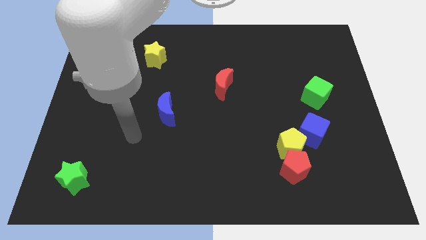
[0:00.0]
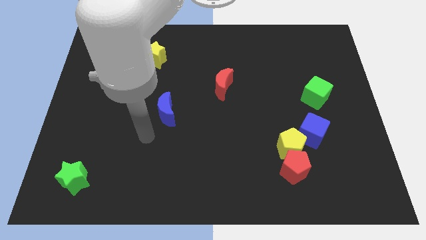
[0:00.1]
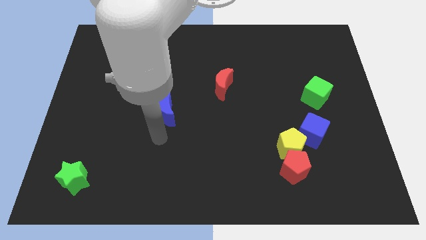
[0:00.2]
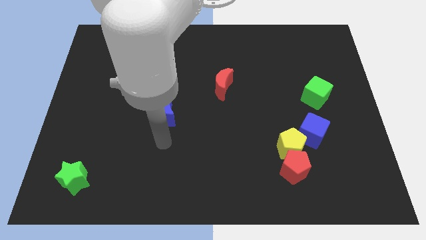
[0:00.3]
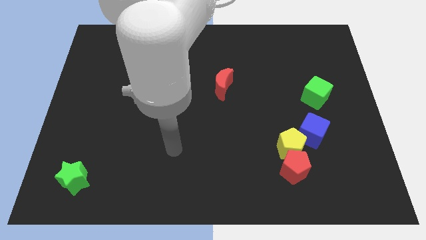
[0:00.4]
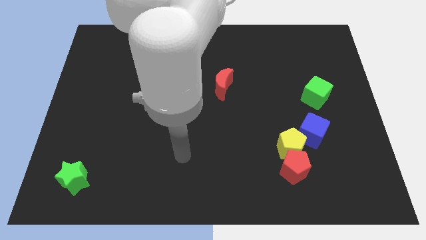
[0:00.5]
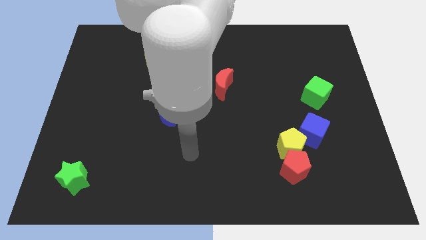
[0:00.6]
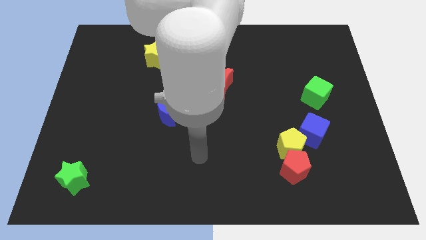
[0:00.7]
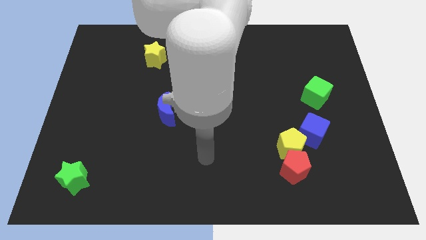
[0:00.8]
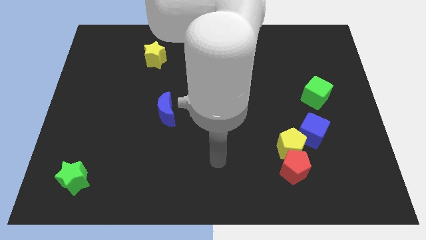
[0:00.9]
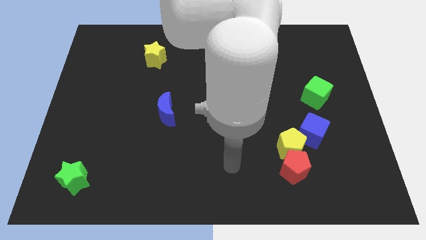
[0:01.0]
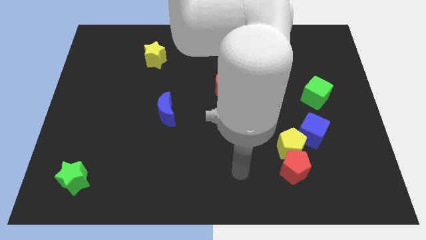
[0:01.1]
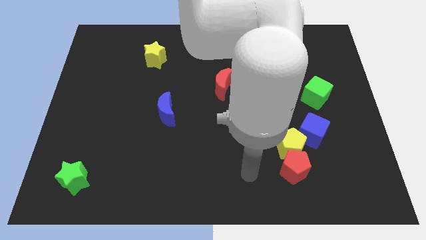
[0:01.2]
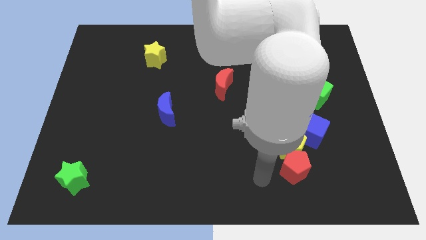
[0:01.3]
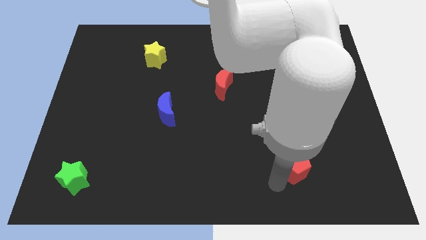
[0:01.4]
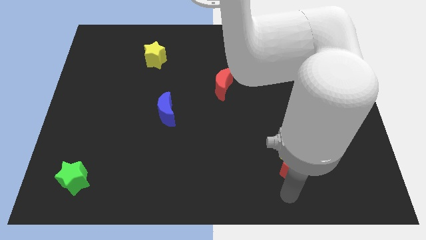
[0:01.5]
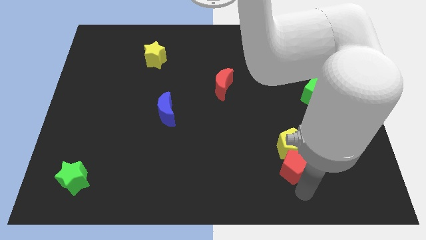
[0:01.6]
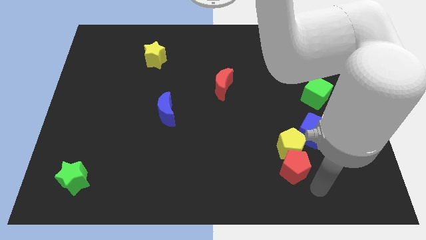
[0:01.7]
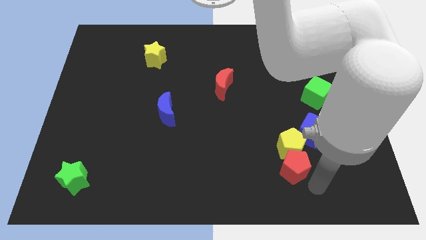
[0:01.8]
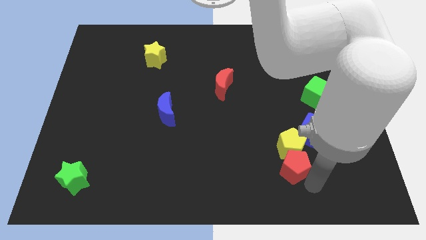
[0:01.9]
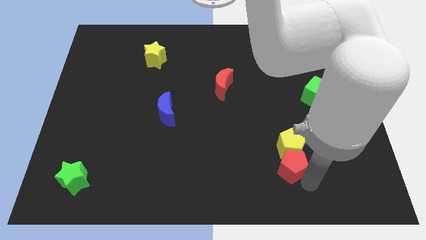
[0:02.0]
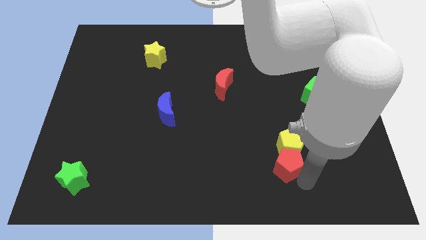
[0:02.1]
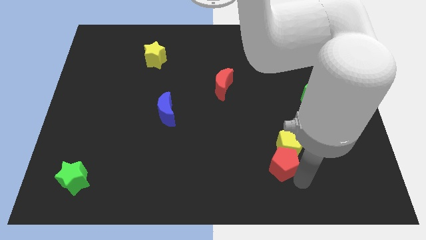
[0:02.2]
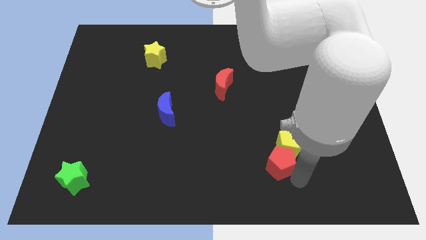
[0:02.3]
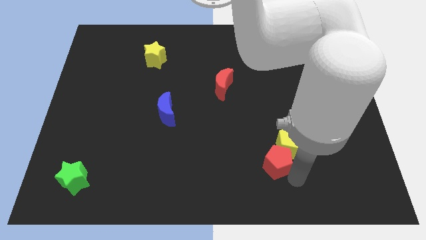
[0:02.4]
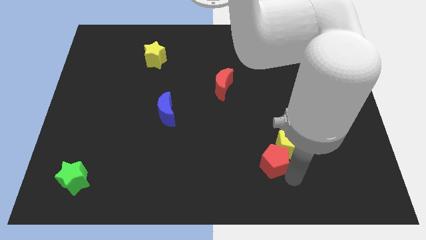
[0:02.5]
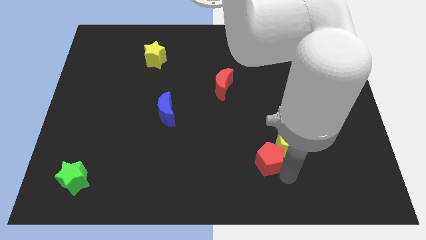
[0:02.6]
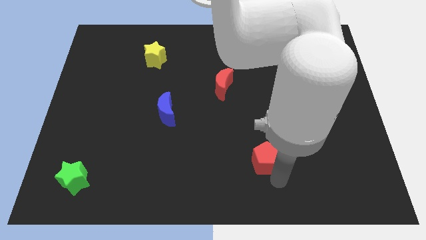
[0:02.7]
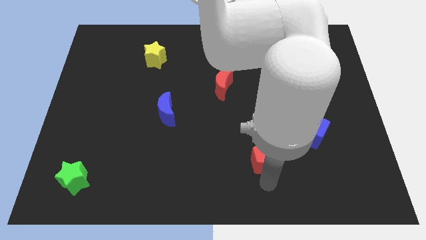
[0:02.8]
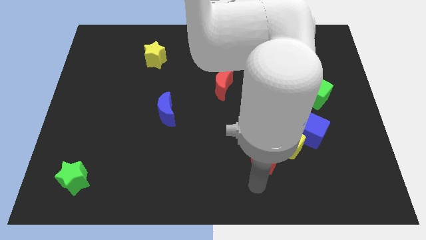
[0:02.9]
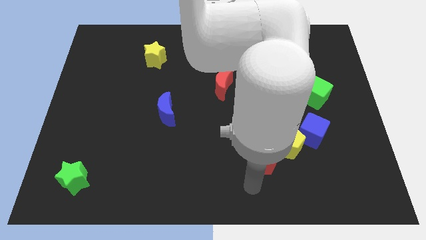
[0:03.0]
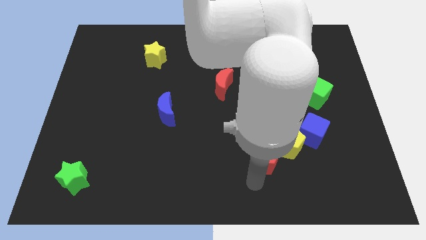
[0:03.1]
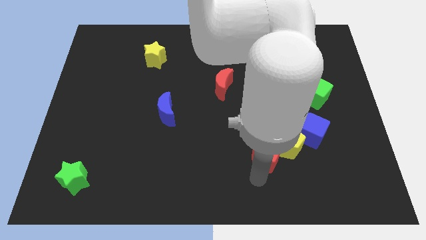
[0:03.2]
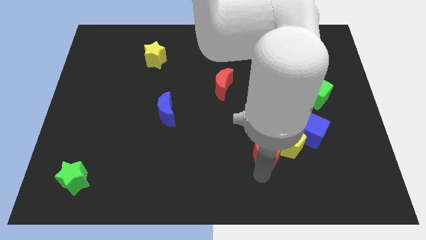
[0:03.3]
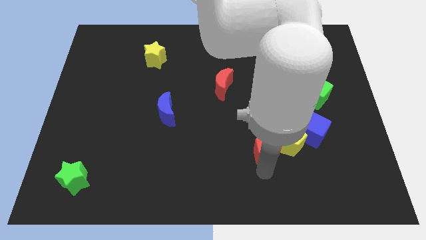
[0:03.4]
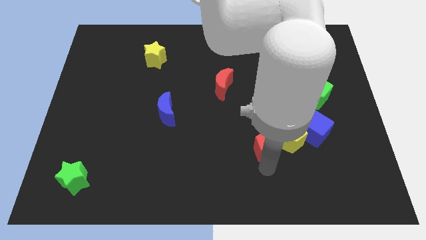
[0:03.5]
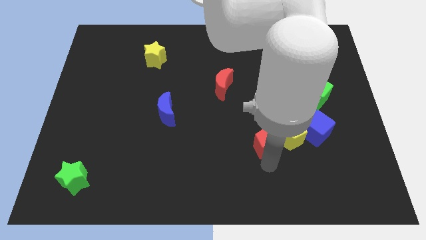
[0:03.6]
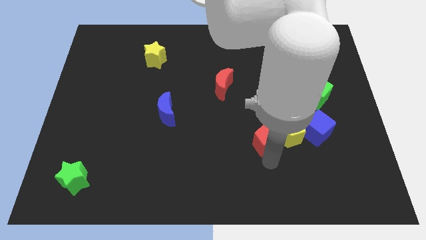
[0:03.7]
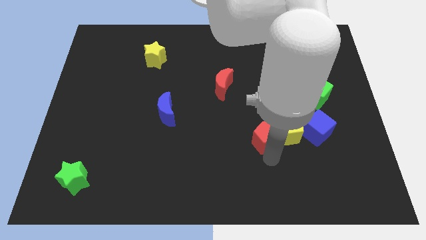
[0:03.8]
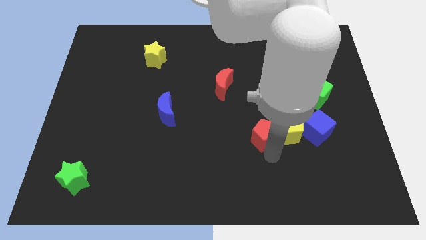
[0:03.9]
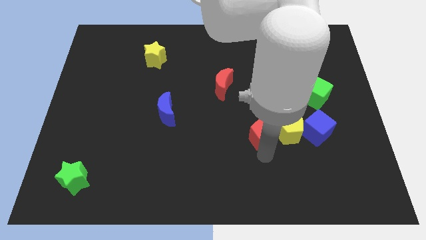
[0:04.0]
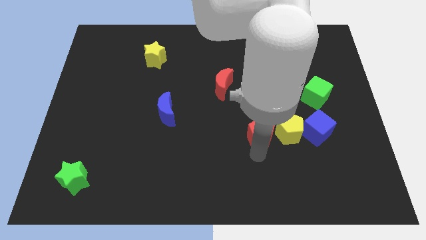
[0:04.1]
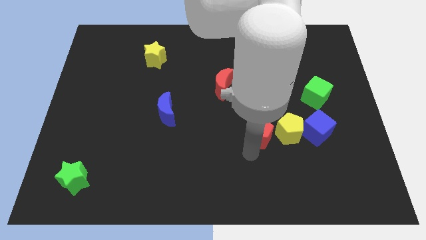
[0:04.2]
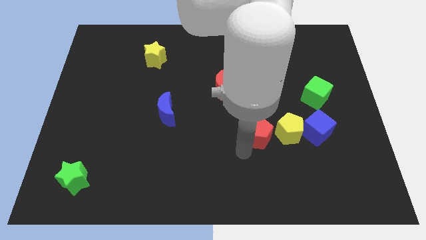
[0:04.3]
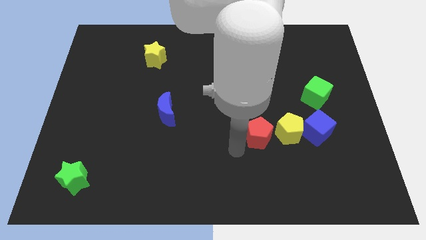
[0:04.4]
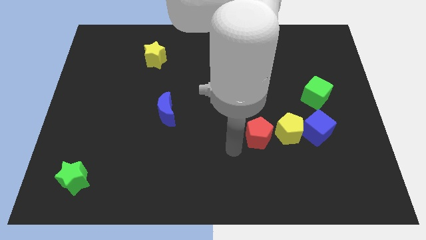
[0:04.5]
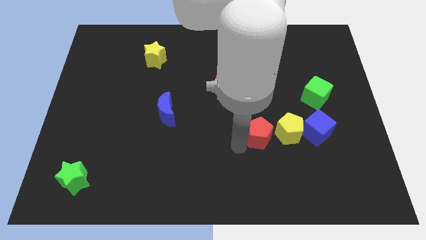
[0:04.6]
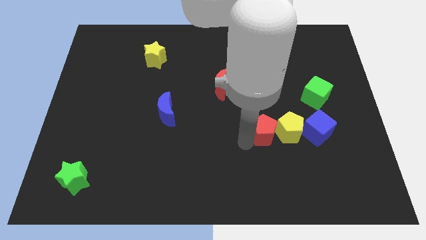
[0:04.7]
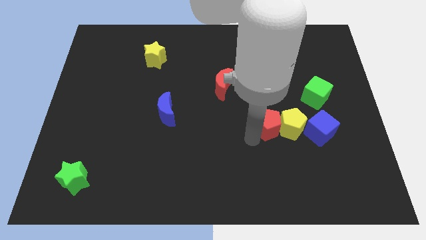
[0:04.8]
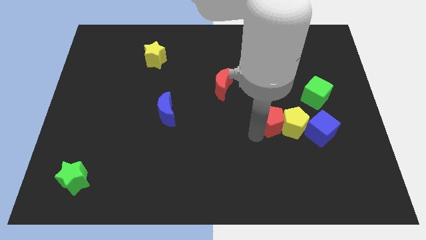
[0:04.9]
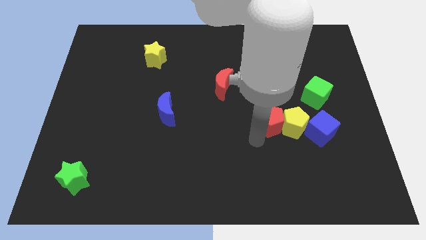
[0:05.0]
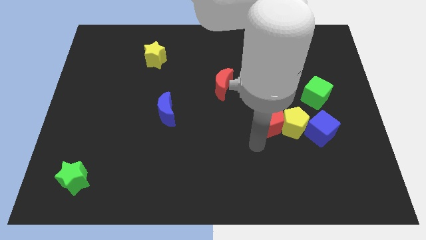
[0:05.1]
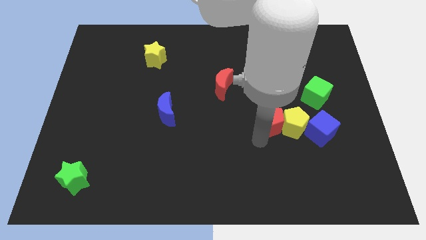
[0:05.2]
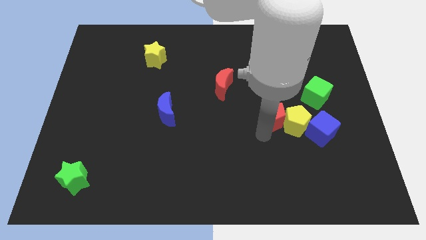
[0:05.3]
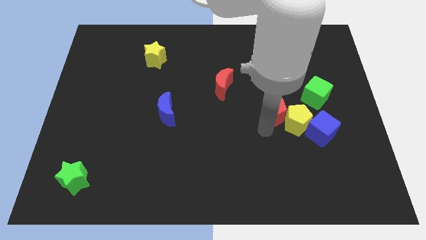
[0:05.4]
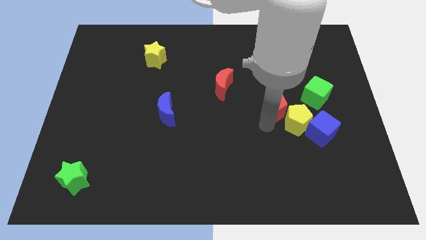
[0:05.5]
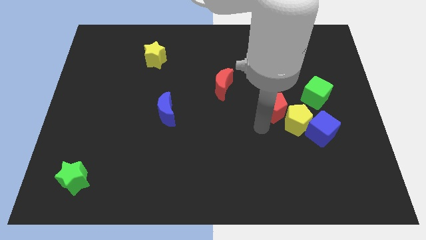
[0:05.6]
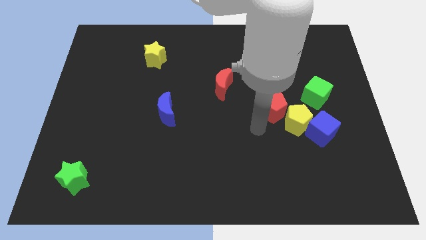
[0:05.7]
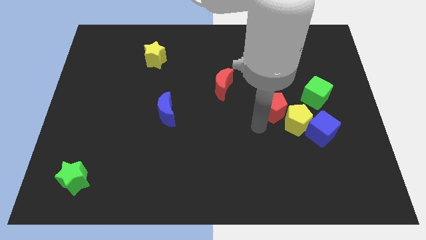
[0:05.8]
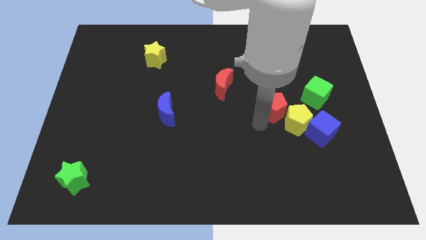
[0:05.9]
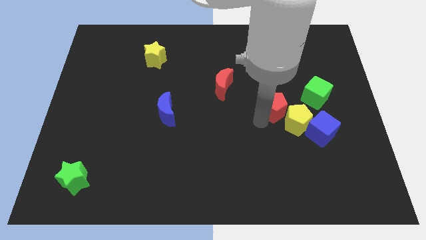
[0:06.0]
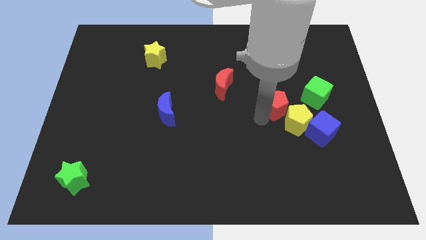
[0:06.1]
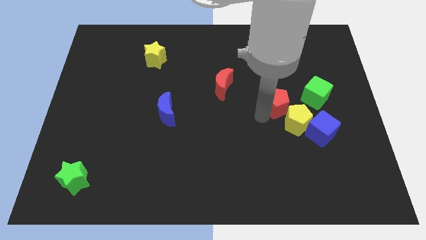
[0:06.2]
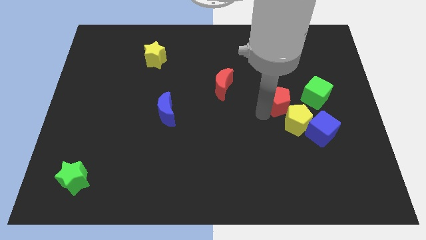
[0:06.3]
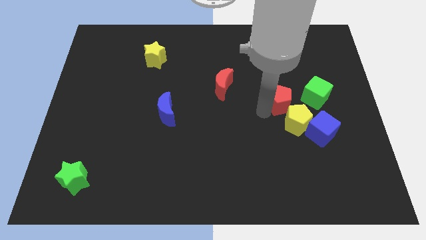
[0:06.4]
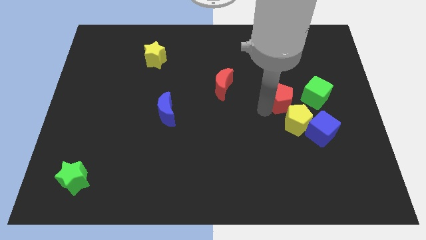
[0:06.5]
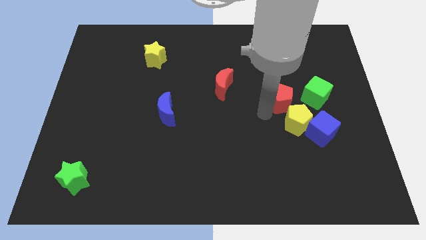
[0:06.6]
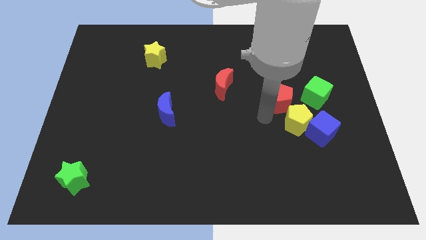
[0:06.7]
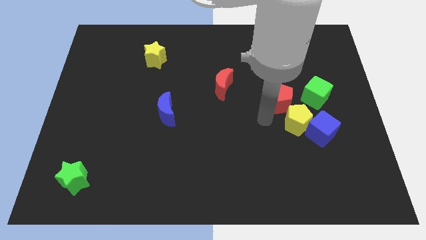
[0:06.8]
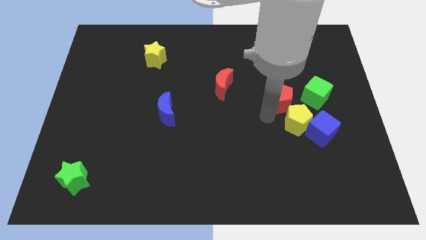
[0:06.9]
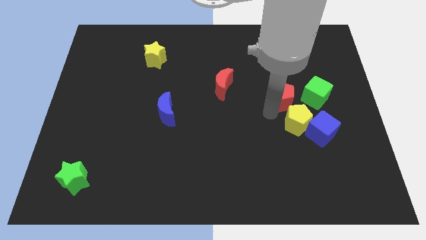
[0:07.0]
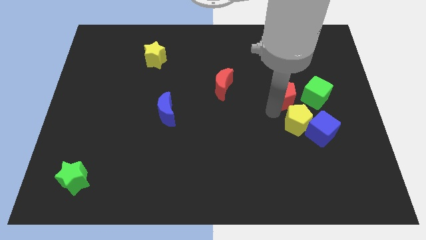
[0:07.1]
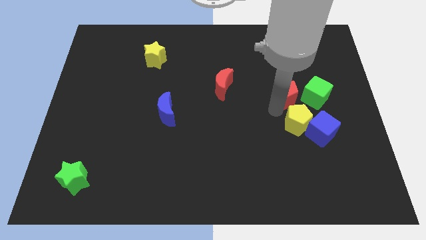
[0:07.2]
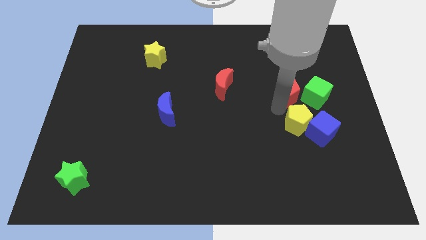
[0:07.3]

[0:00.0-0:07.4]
move the red pentagon diagonally up and to the left of the green cube
